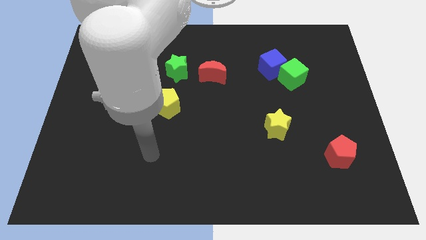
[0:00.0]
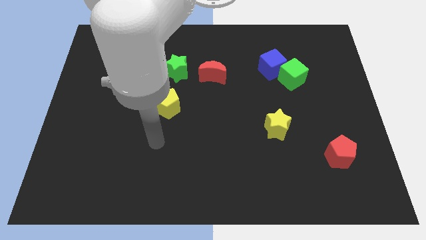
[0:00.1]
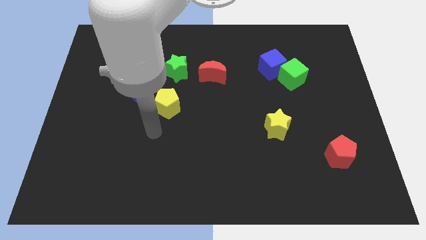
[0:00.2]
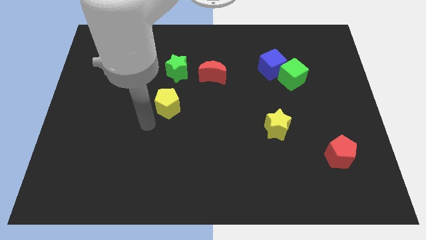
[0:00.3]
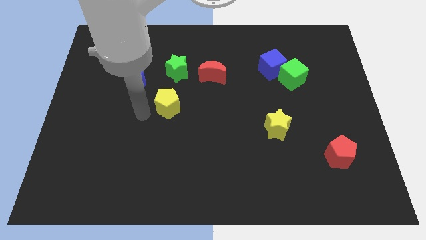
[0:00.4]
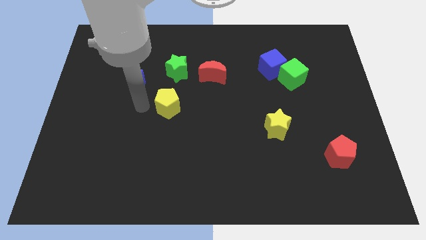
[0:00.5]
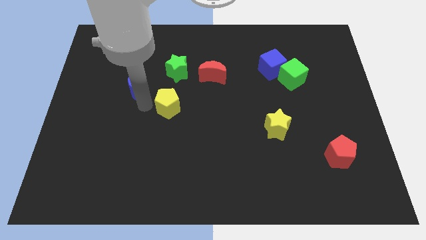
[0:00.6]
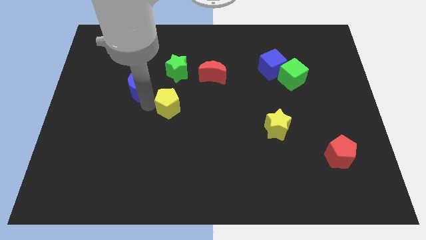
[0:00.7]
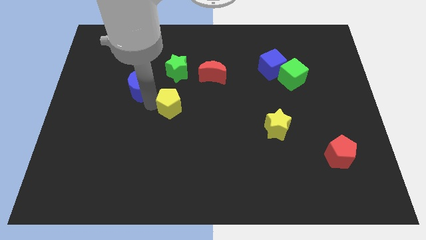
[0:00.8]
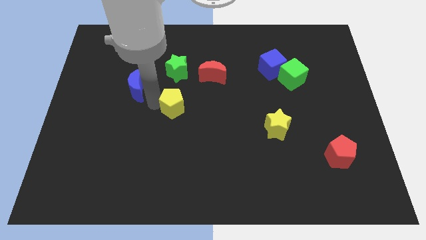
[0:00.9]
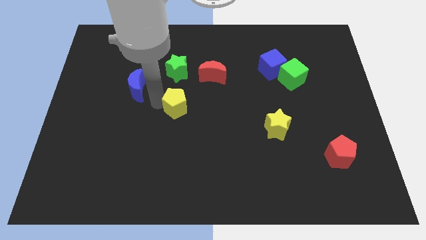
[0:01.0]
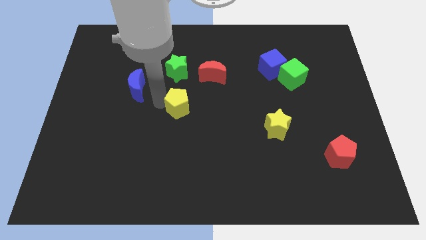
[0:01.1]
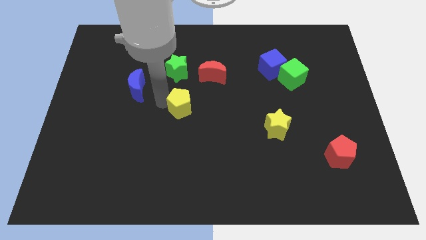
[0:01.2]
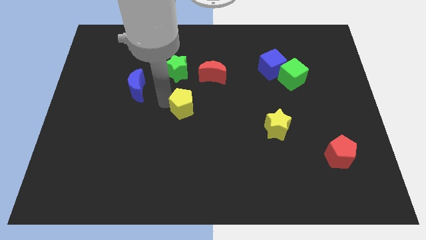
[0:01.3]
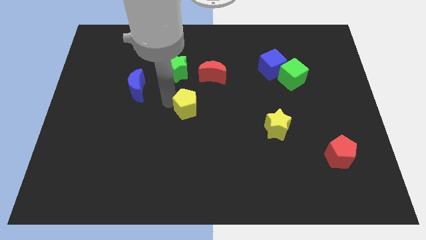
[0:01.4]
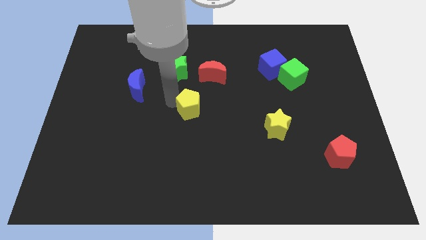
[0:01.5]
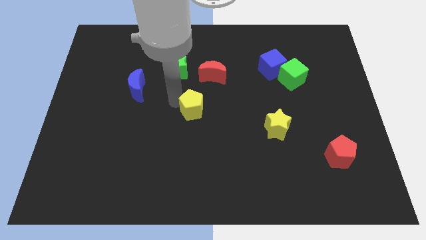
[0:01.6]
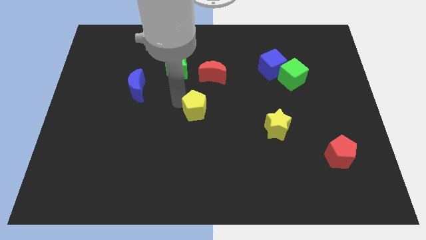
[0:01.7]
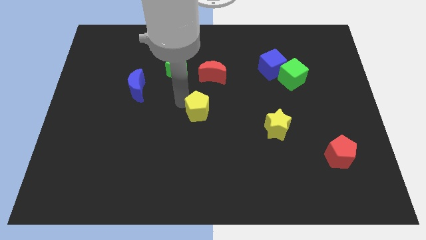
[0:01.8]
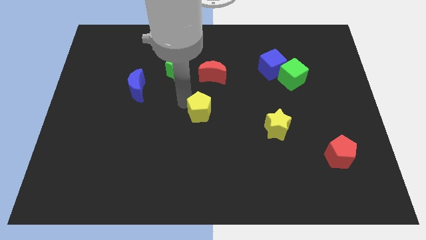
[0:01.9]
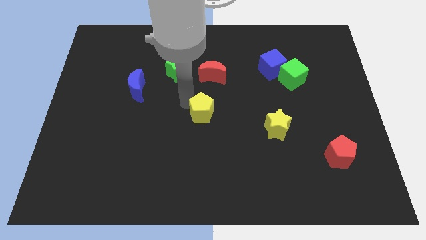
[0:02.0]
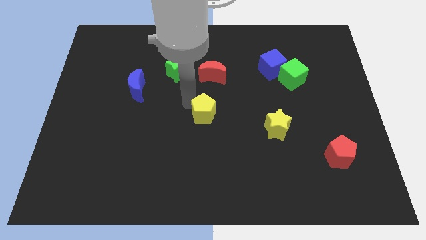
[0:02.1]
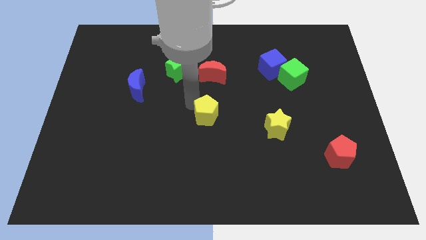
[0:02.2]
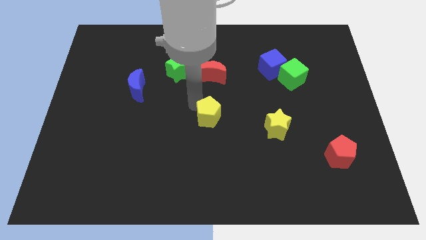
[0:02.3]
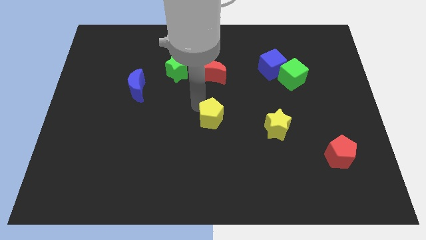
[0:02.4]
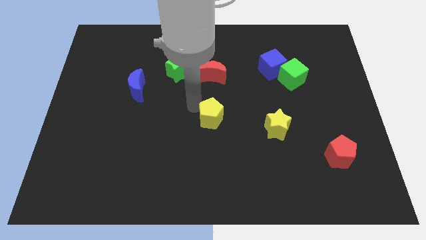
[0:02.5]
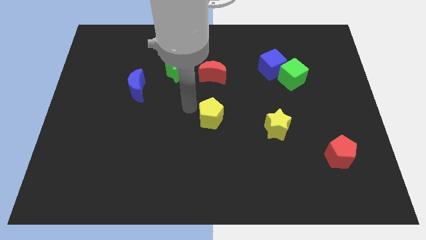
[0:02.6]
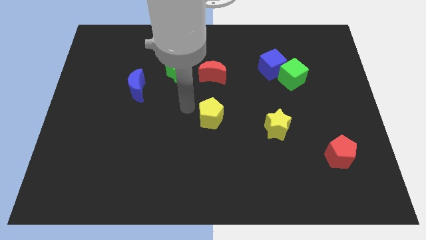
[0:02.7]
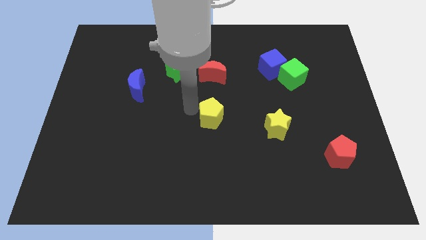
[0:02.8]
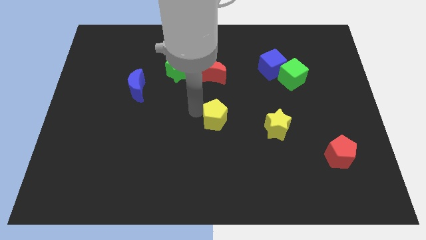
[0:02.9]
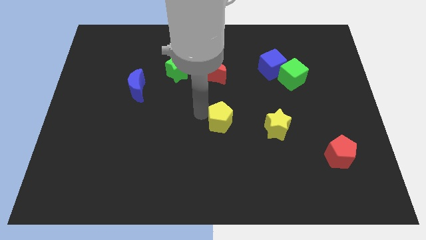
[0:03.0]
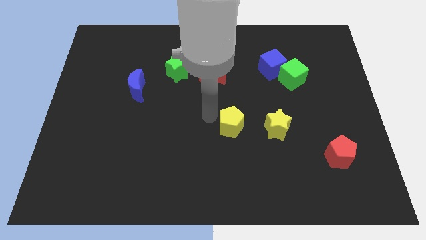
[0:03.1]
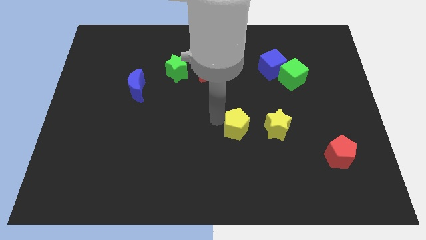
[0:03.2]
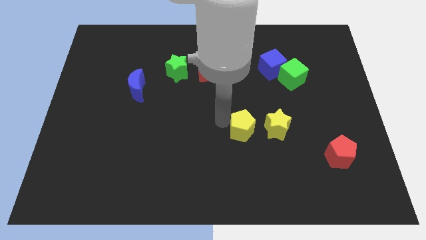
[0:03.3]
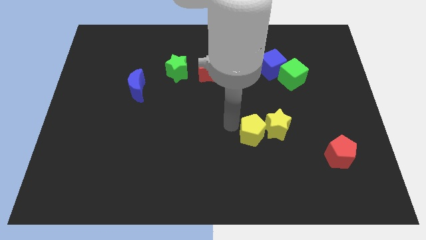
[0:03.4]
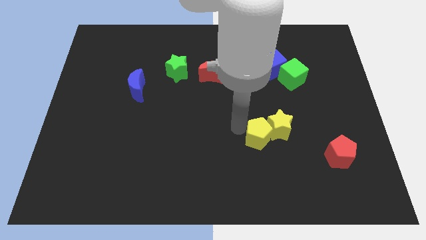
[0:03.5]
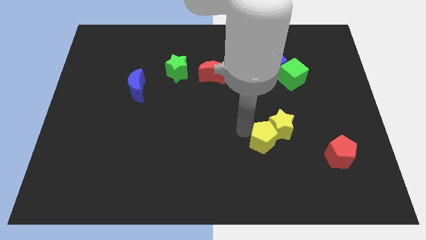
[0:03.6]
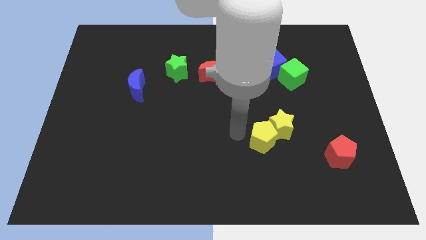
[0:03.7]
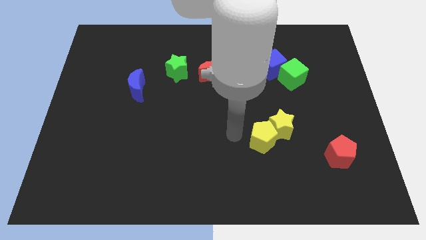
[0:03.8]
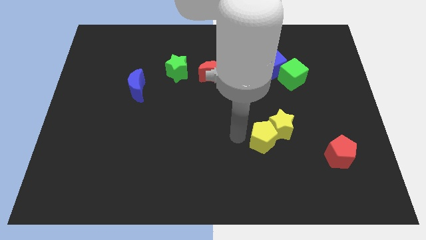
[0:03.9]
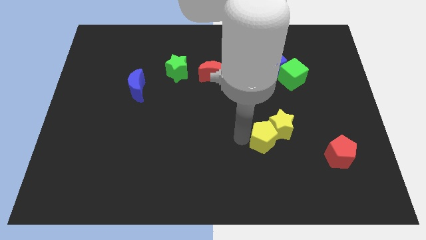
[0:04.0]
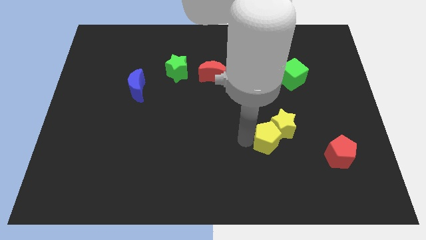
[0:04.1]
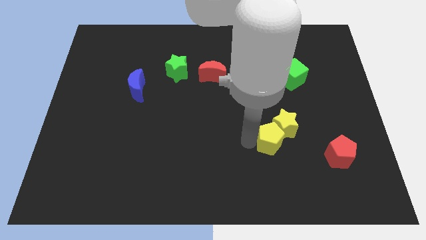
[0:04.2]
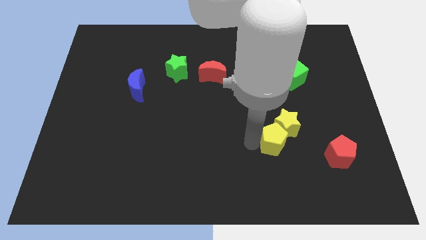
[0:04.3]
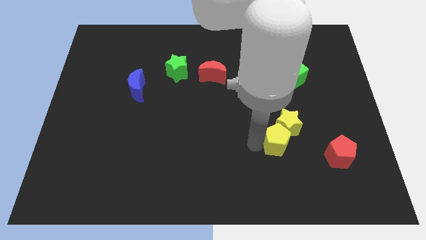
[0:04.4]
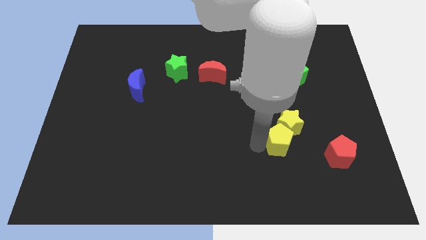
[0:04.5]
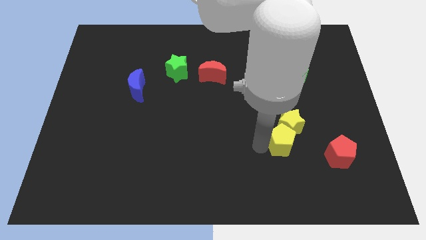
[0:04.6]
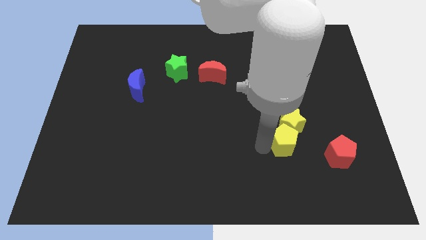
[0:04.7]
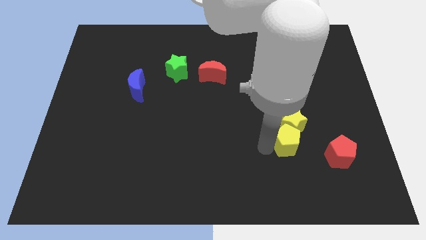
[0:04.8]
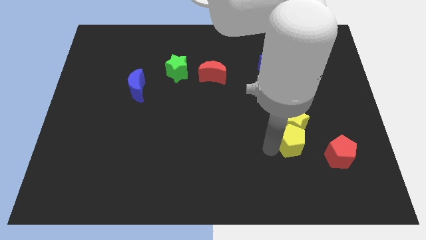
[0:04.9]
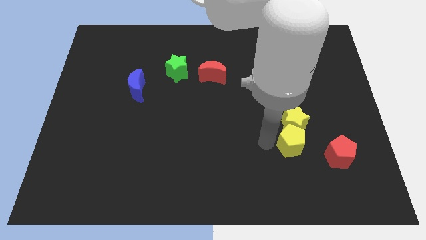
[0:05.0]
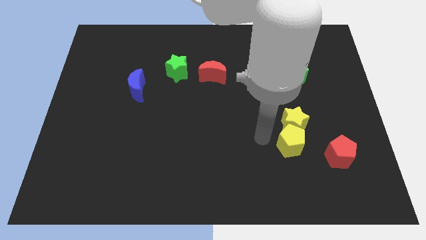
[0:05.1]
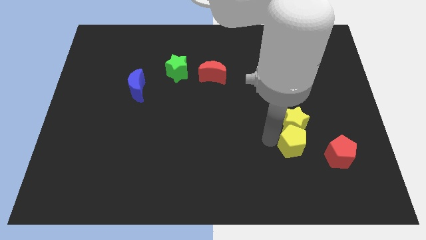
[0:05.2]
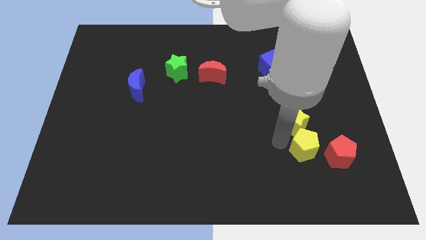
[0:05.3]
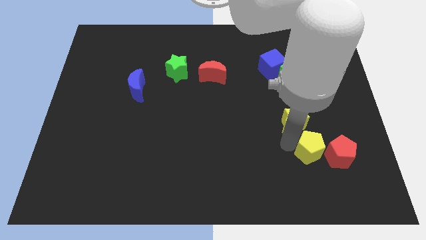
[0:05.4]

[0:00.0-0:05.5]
push the yellow pentagon to the red pentagon

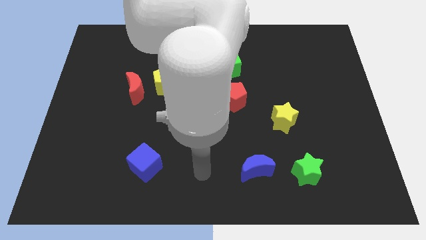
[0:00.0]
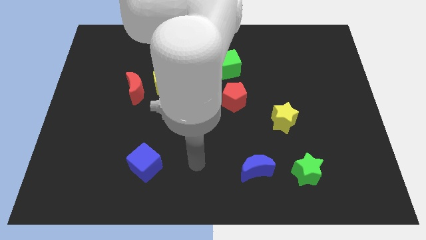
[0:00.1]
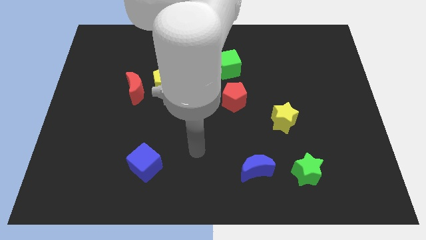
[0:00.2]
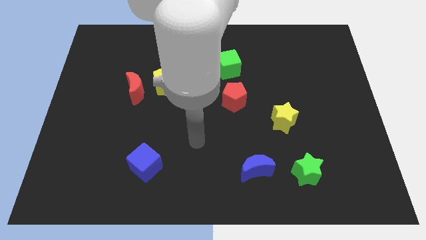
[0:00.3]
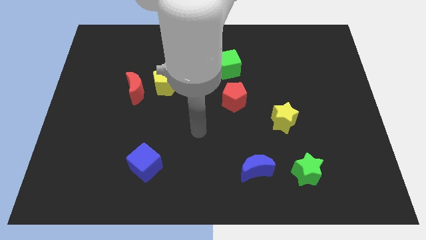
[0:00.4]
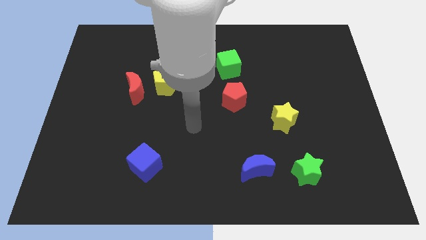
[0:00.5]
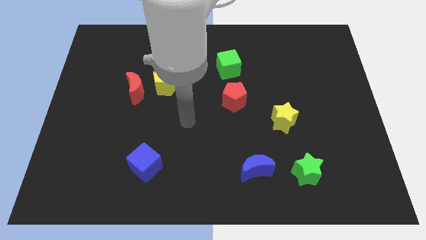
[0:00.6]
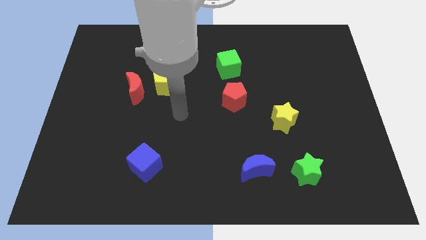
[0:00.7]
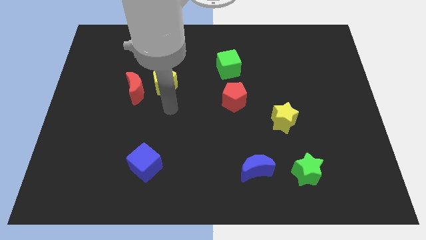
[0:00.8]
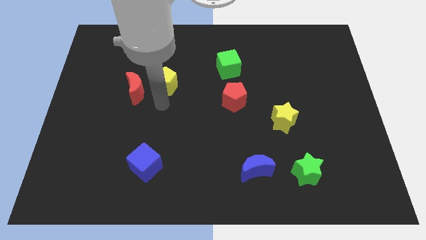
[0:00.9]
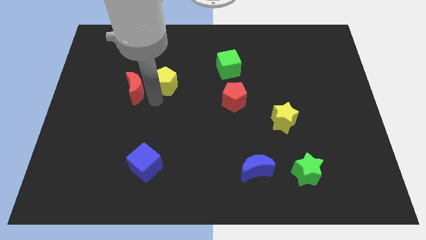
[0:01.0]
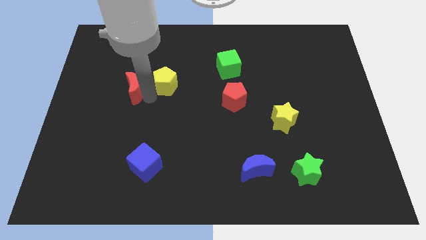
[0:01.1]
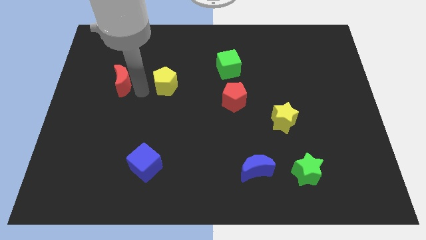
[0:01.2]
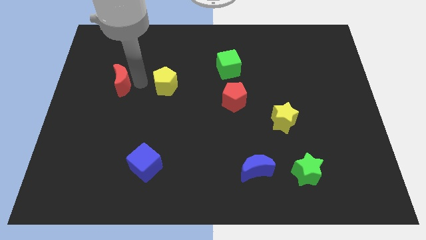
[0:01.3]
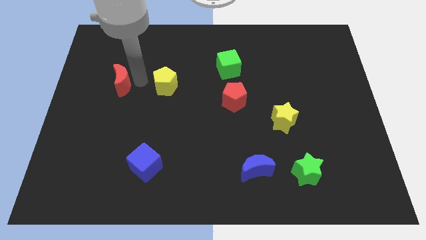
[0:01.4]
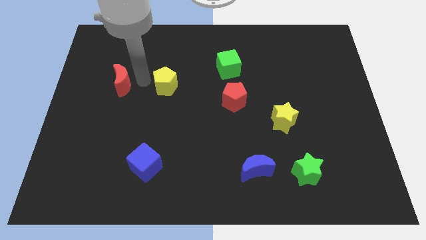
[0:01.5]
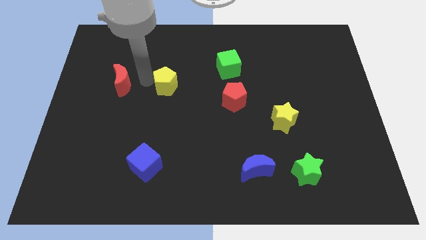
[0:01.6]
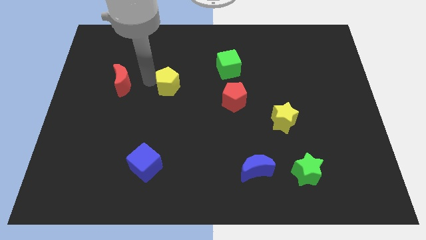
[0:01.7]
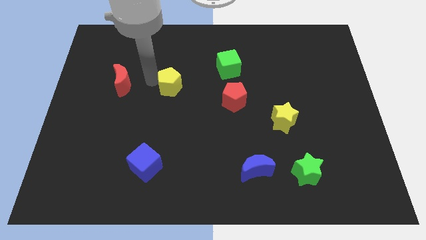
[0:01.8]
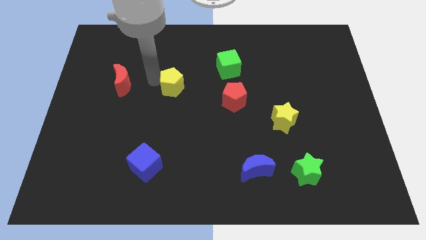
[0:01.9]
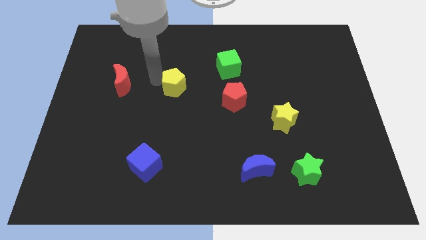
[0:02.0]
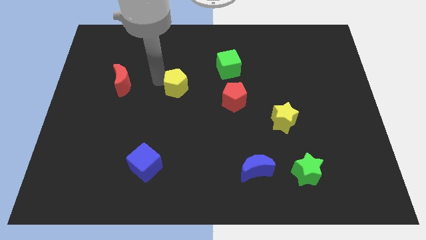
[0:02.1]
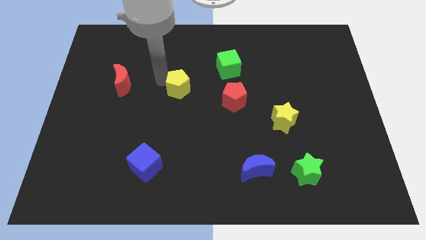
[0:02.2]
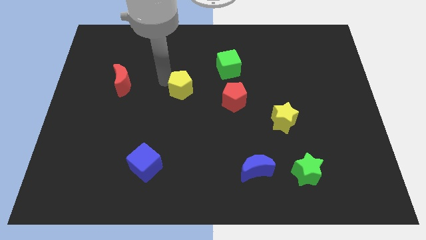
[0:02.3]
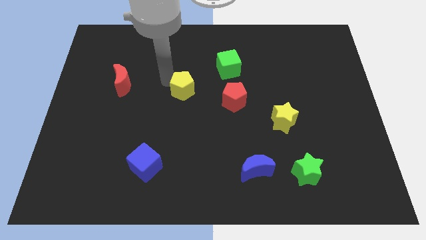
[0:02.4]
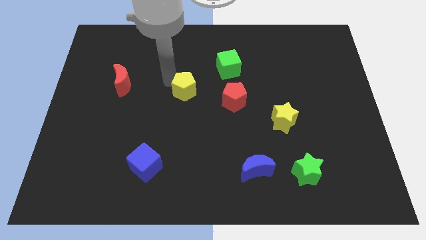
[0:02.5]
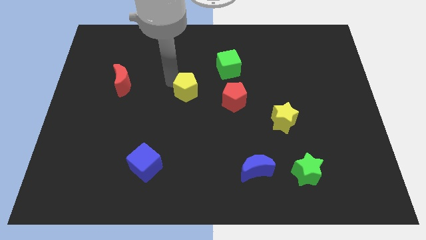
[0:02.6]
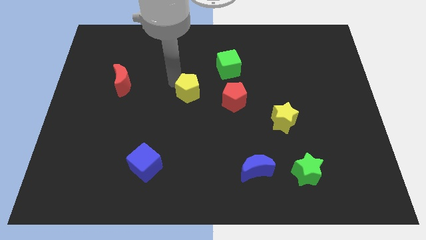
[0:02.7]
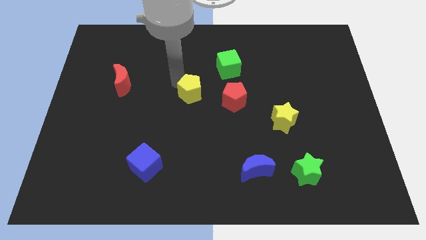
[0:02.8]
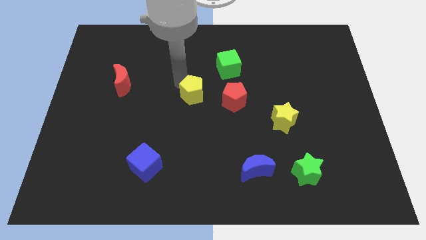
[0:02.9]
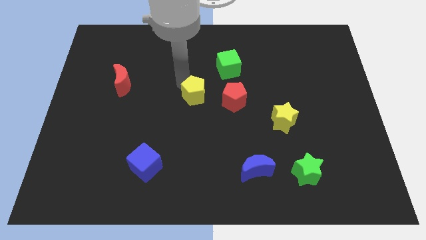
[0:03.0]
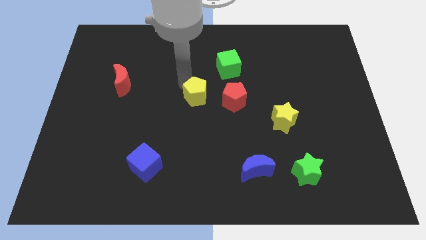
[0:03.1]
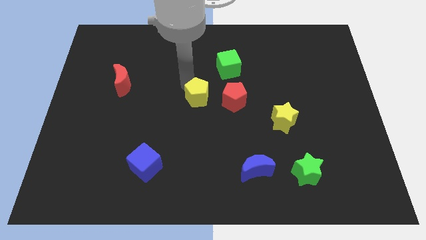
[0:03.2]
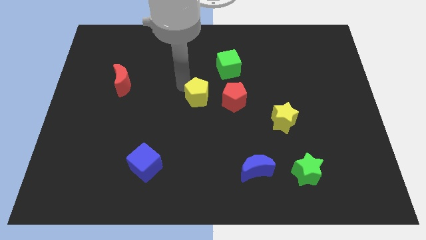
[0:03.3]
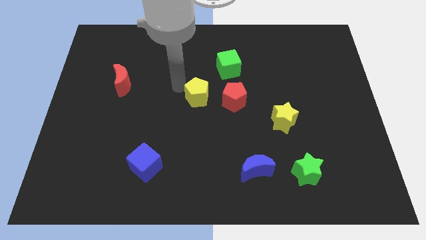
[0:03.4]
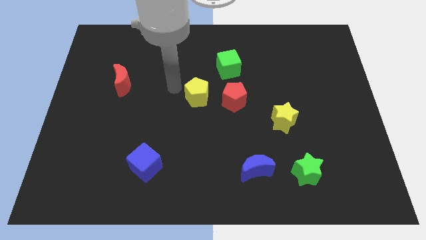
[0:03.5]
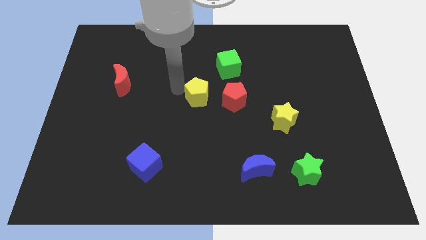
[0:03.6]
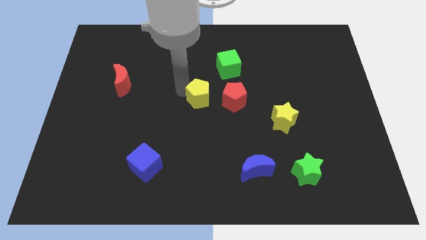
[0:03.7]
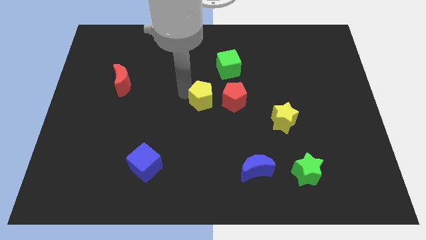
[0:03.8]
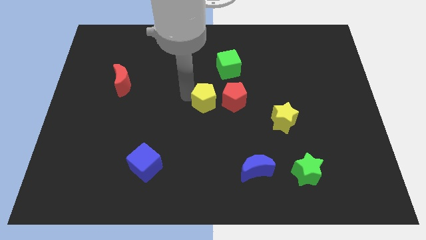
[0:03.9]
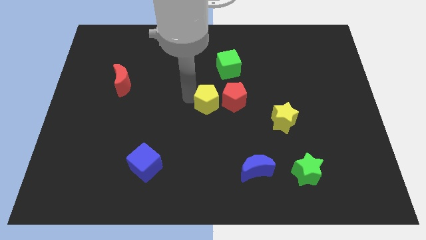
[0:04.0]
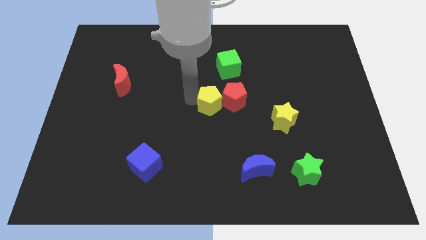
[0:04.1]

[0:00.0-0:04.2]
slide the yellow pentagon next to the red pentagon
